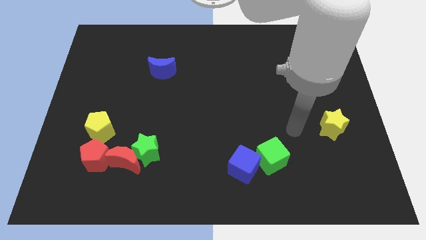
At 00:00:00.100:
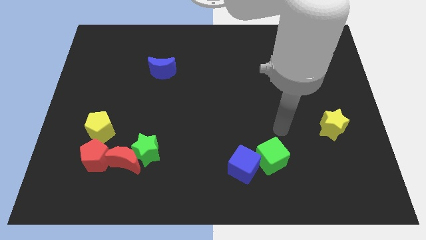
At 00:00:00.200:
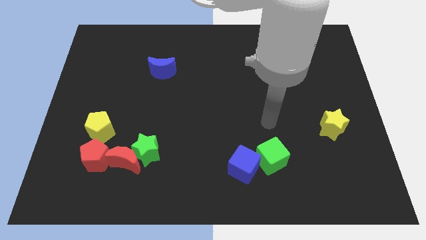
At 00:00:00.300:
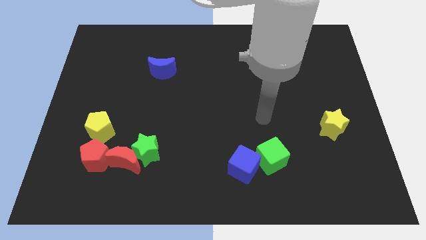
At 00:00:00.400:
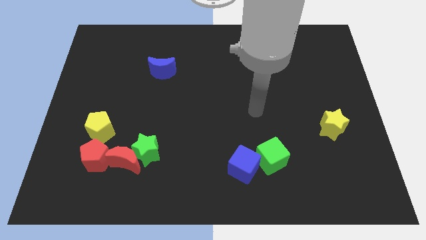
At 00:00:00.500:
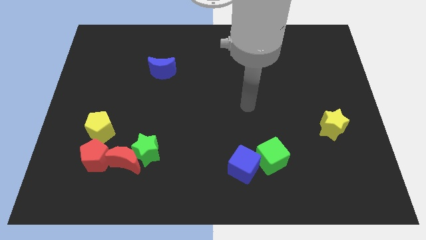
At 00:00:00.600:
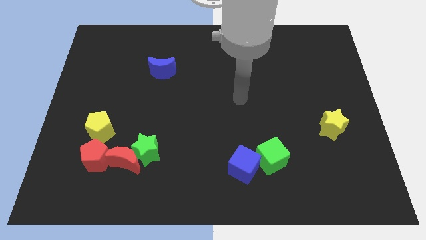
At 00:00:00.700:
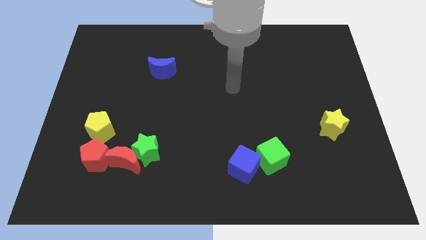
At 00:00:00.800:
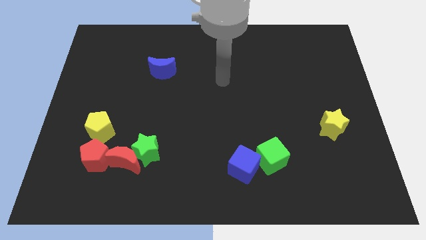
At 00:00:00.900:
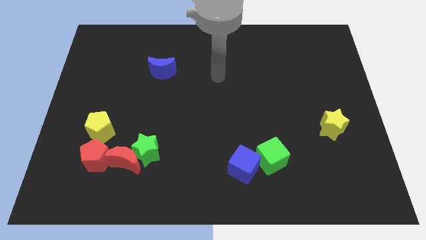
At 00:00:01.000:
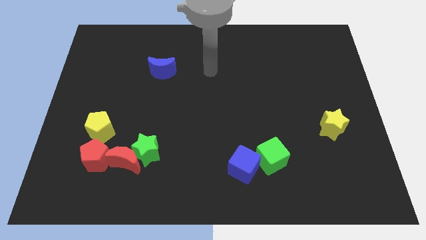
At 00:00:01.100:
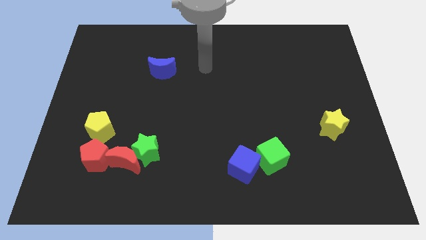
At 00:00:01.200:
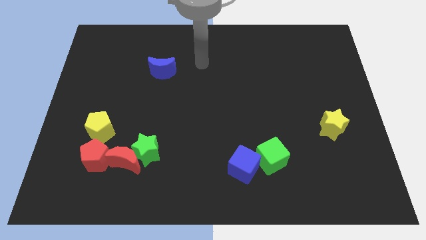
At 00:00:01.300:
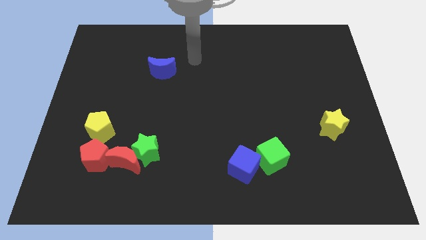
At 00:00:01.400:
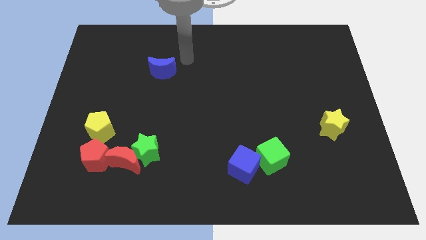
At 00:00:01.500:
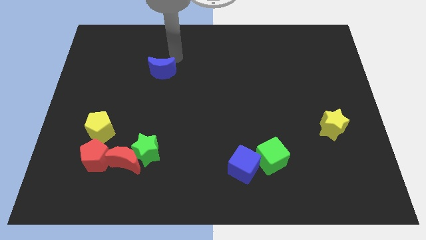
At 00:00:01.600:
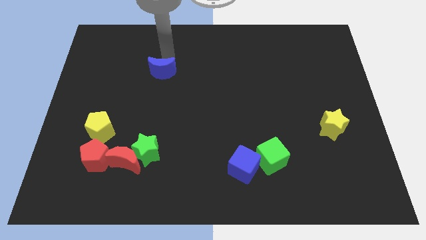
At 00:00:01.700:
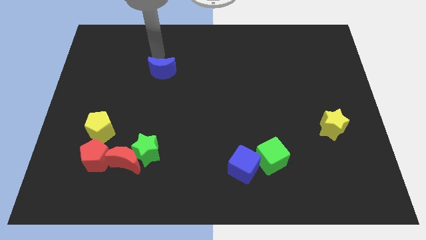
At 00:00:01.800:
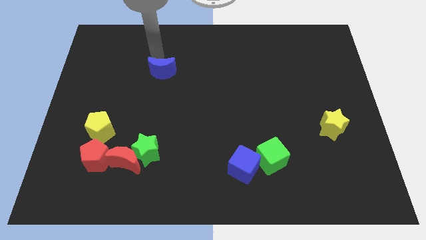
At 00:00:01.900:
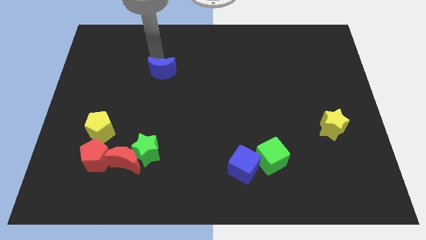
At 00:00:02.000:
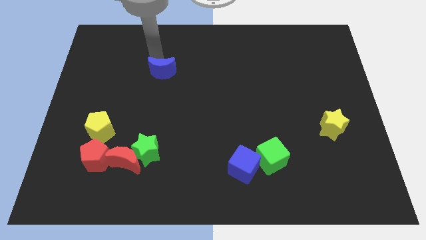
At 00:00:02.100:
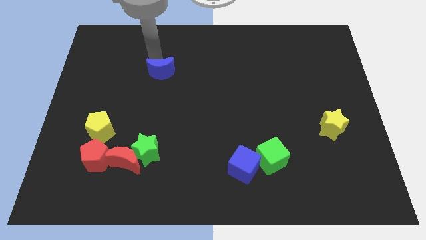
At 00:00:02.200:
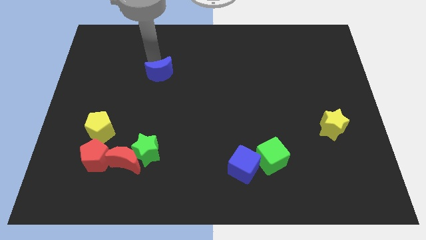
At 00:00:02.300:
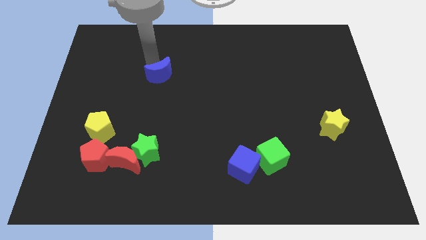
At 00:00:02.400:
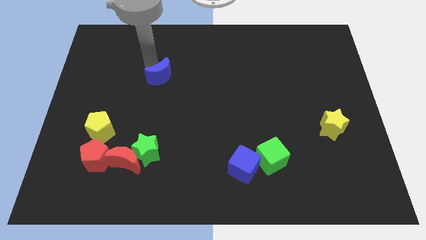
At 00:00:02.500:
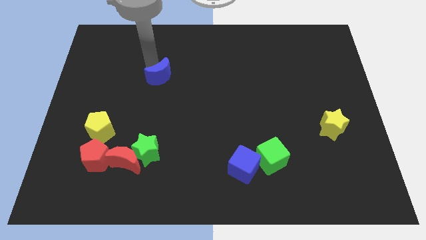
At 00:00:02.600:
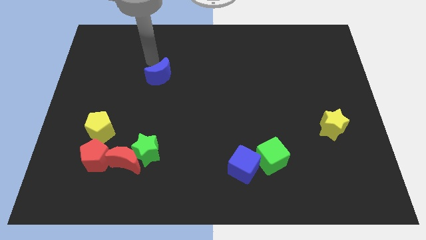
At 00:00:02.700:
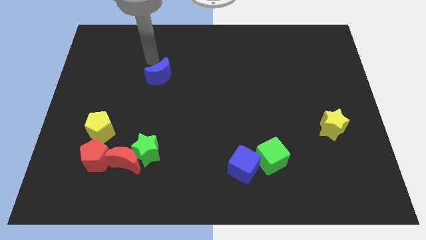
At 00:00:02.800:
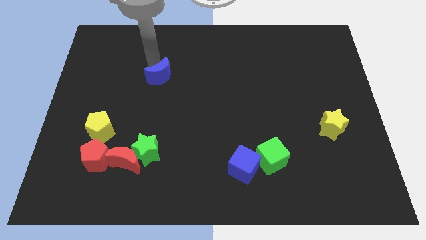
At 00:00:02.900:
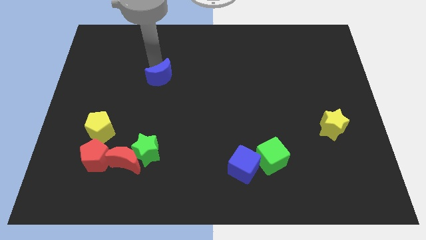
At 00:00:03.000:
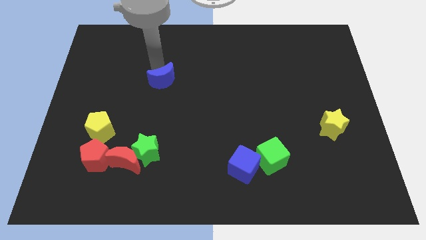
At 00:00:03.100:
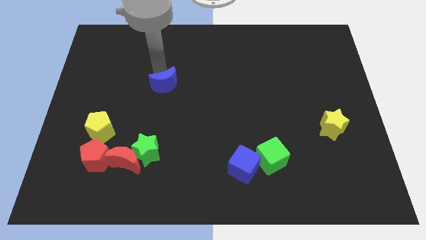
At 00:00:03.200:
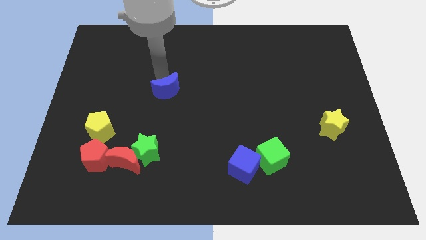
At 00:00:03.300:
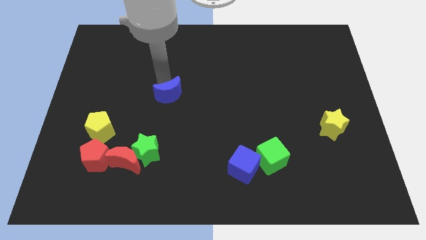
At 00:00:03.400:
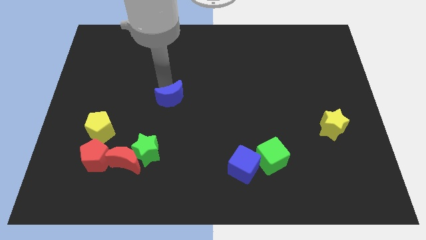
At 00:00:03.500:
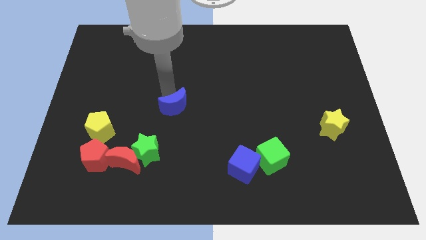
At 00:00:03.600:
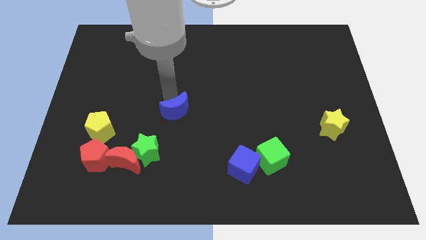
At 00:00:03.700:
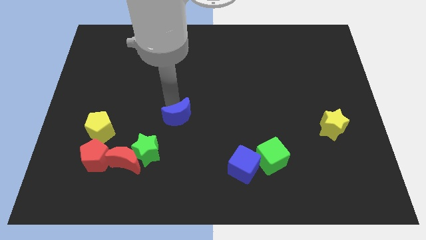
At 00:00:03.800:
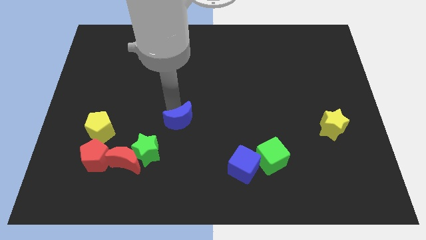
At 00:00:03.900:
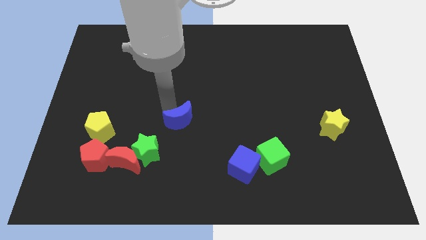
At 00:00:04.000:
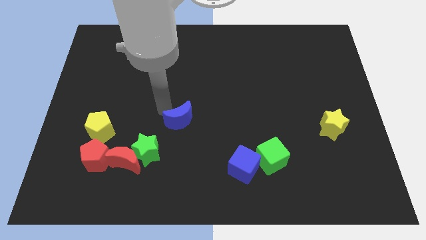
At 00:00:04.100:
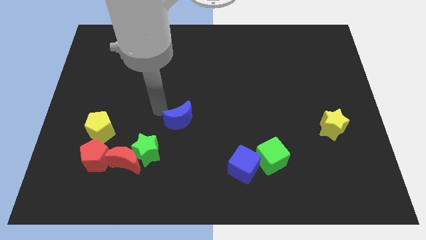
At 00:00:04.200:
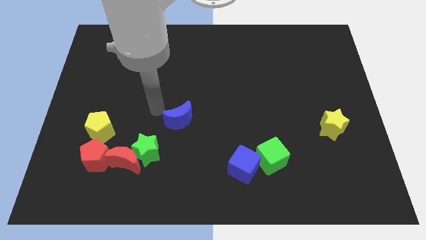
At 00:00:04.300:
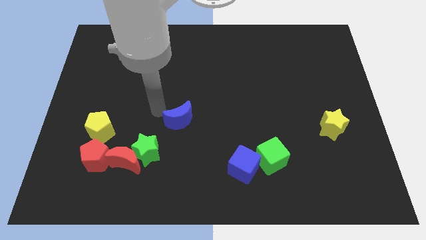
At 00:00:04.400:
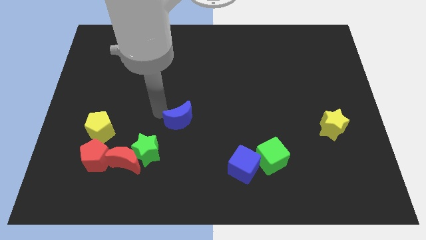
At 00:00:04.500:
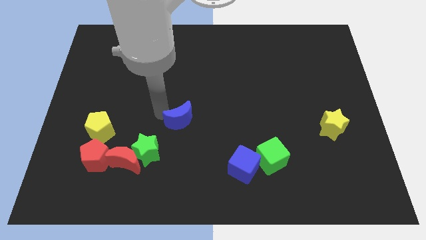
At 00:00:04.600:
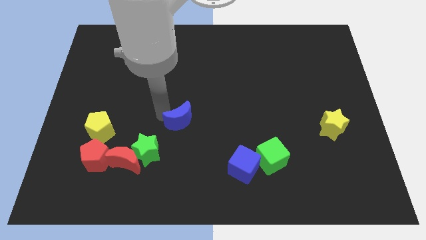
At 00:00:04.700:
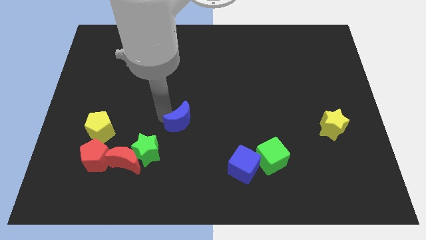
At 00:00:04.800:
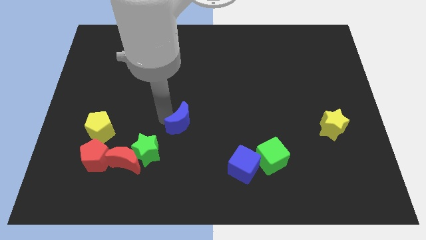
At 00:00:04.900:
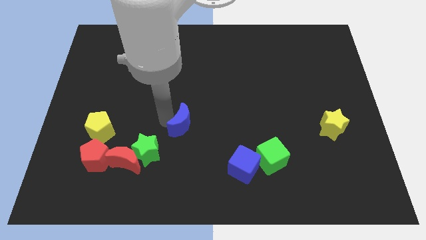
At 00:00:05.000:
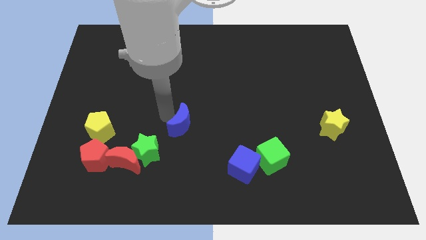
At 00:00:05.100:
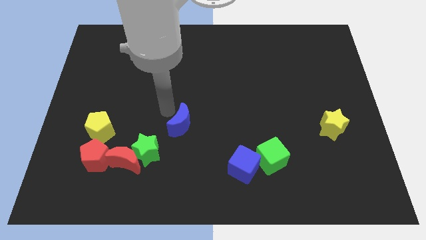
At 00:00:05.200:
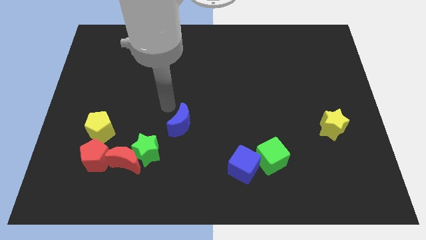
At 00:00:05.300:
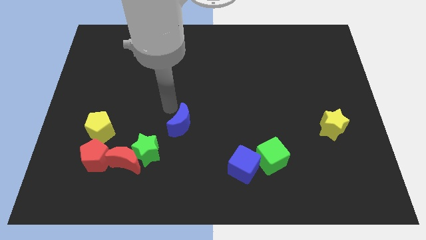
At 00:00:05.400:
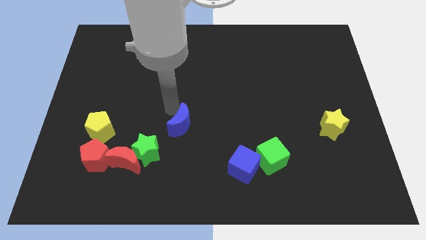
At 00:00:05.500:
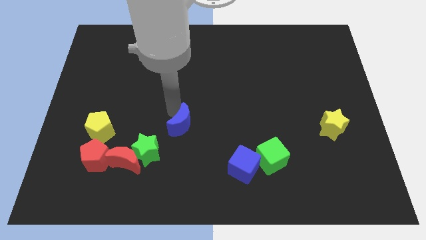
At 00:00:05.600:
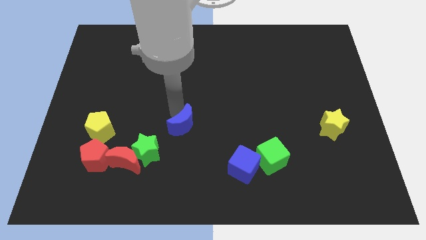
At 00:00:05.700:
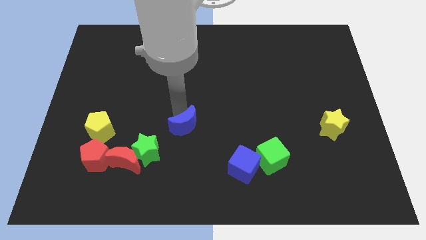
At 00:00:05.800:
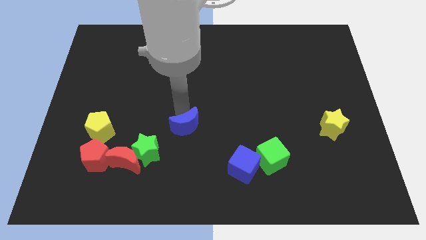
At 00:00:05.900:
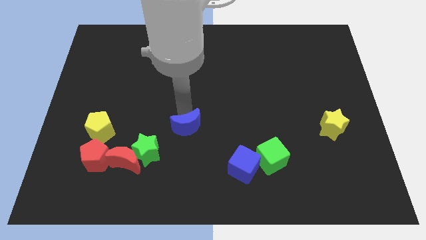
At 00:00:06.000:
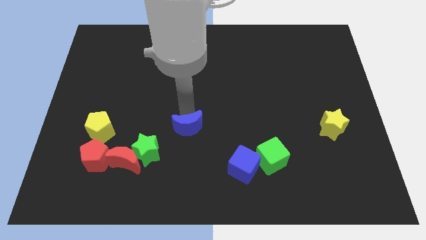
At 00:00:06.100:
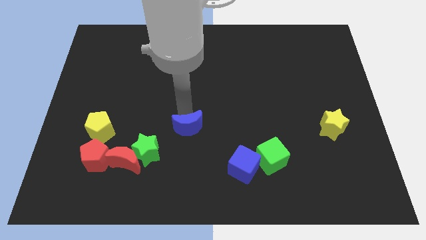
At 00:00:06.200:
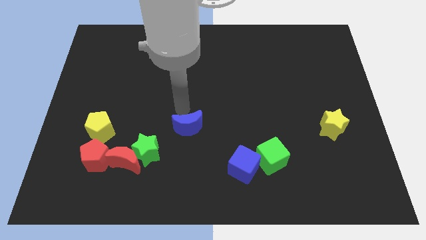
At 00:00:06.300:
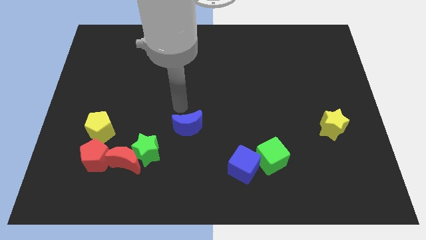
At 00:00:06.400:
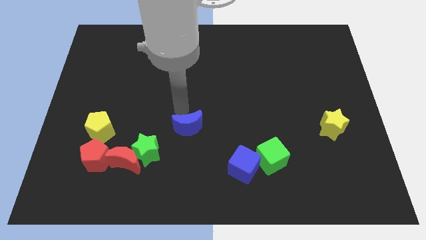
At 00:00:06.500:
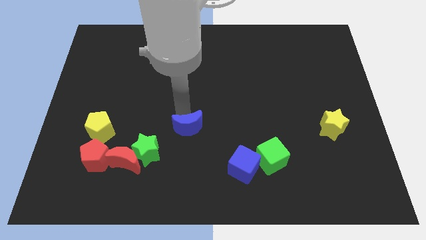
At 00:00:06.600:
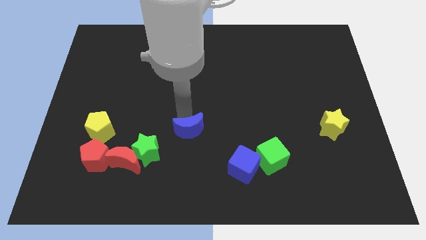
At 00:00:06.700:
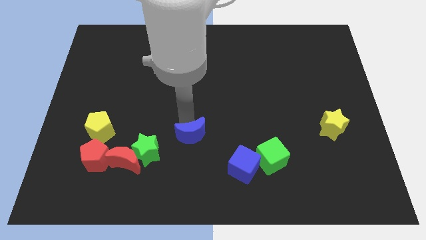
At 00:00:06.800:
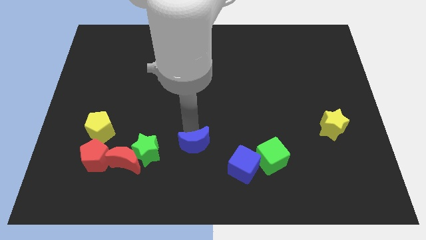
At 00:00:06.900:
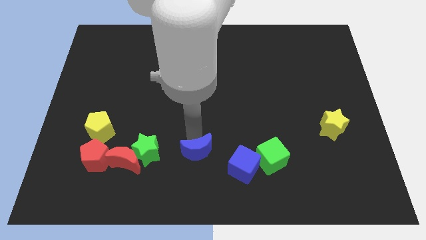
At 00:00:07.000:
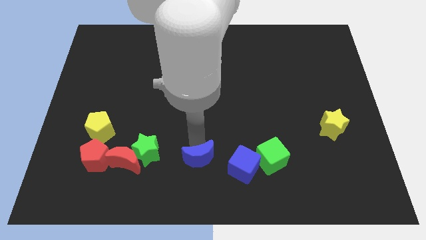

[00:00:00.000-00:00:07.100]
push the blue moon to the bottom

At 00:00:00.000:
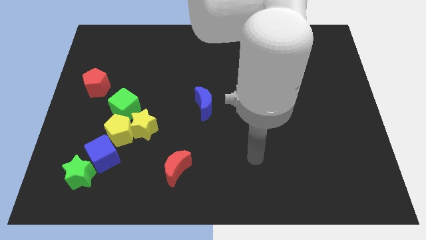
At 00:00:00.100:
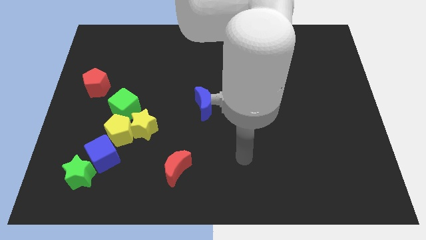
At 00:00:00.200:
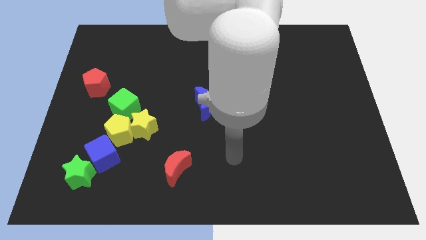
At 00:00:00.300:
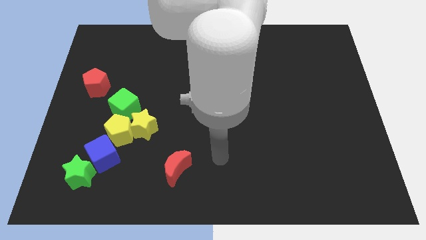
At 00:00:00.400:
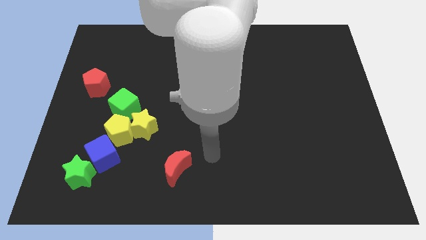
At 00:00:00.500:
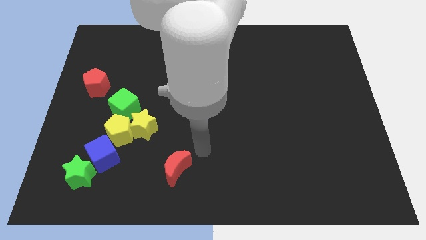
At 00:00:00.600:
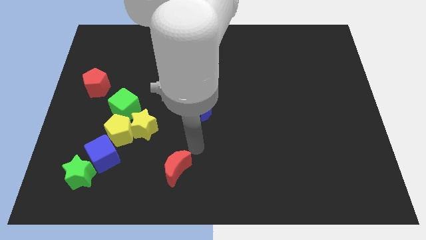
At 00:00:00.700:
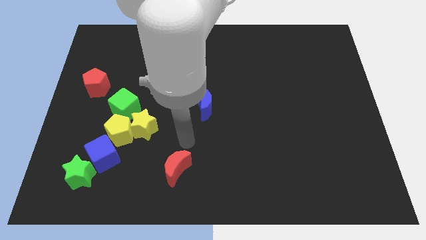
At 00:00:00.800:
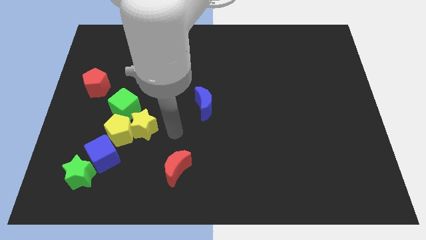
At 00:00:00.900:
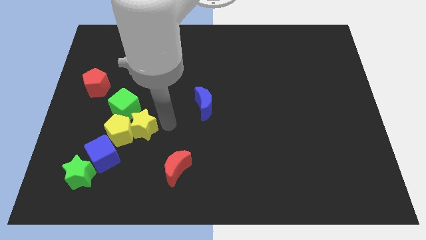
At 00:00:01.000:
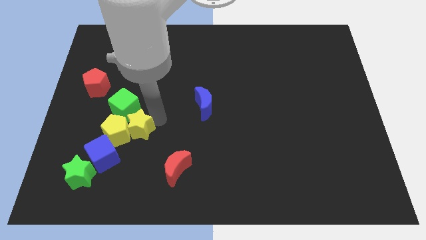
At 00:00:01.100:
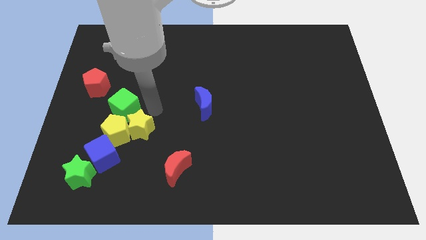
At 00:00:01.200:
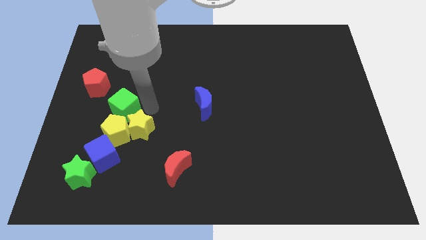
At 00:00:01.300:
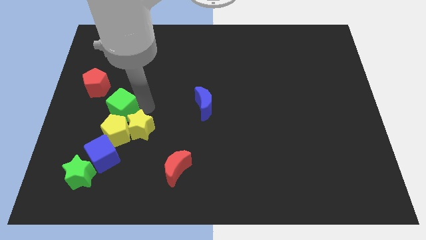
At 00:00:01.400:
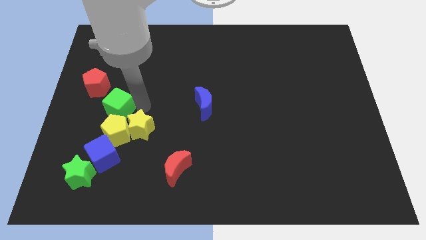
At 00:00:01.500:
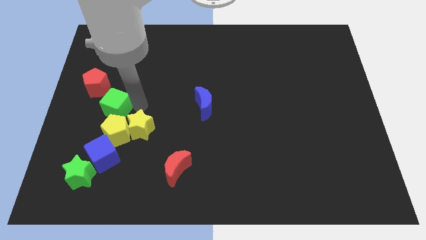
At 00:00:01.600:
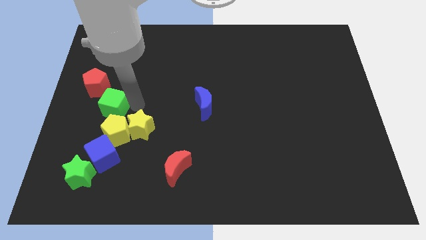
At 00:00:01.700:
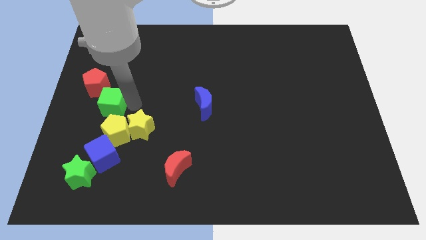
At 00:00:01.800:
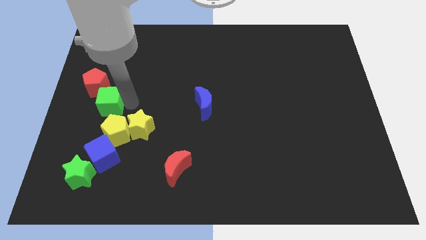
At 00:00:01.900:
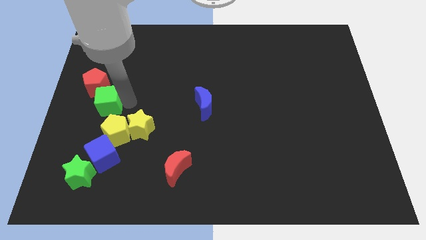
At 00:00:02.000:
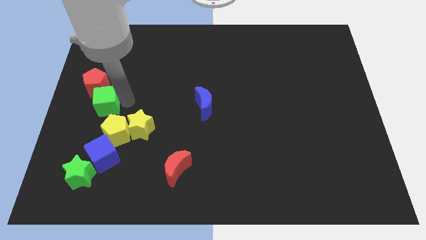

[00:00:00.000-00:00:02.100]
slide the green cube to the center left
